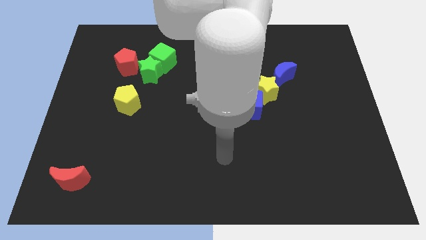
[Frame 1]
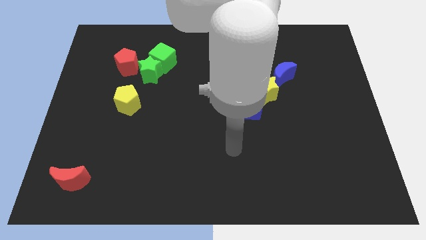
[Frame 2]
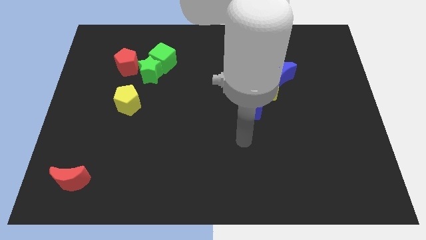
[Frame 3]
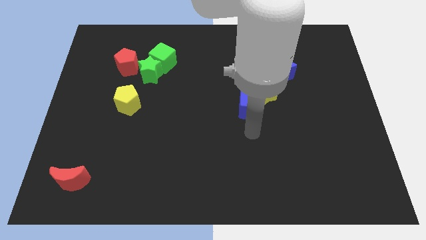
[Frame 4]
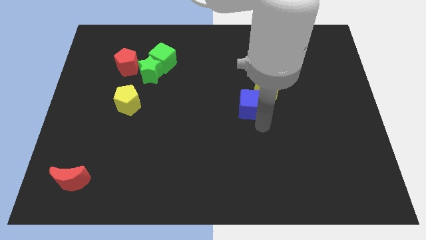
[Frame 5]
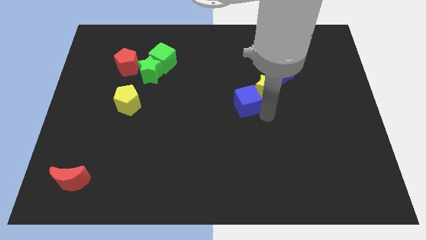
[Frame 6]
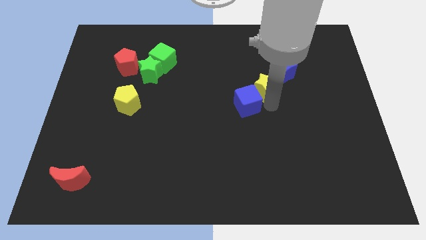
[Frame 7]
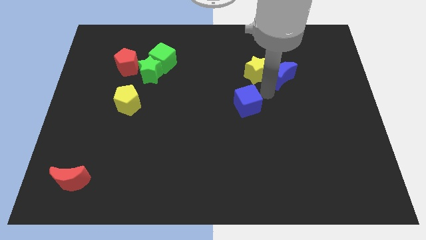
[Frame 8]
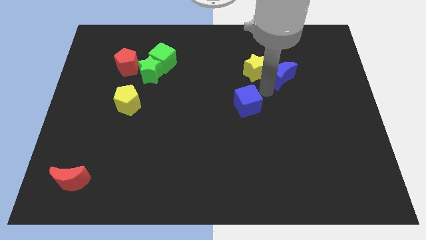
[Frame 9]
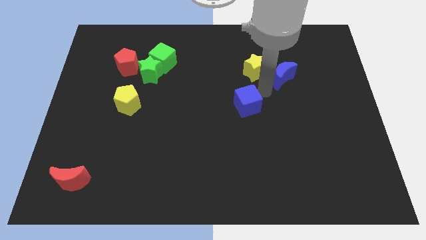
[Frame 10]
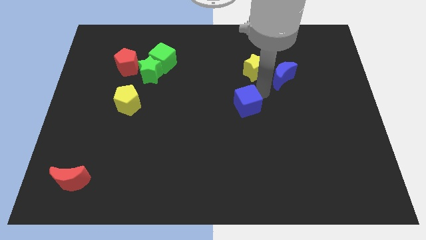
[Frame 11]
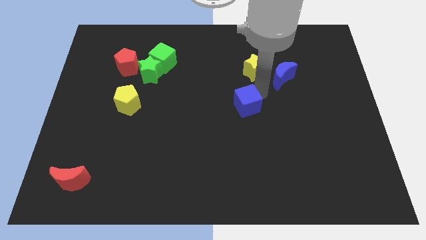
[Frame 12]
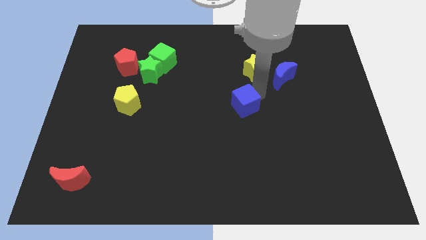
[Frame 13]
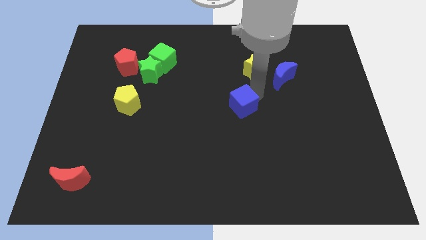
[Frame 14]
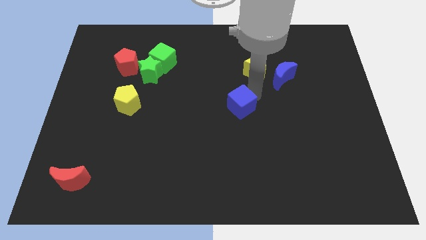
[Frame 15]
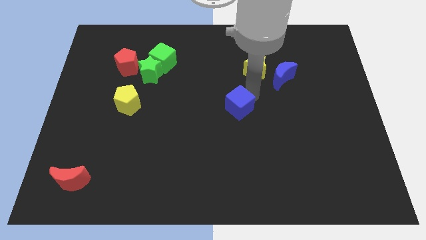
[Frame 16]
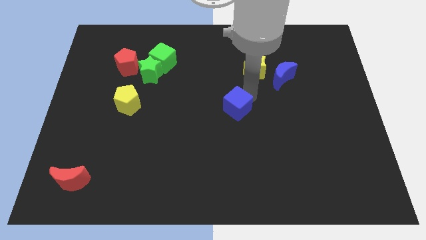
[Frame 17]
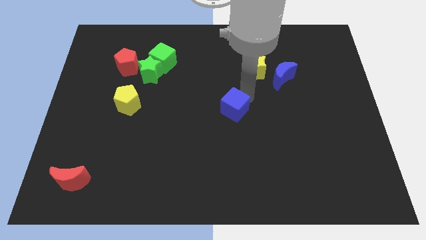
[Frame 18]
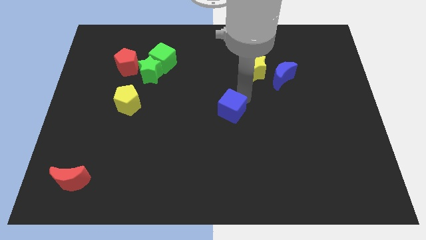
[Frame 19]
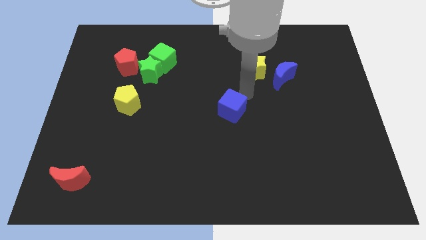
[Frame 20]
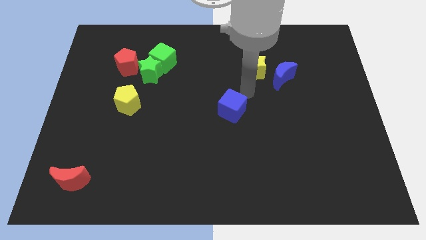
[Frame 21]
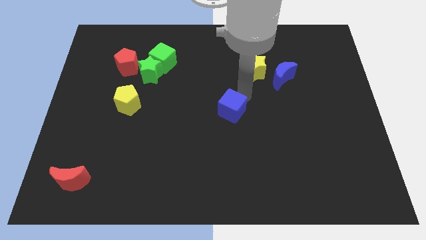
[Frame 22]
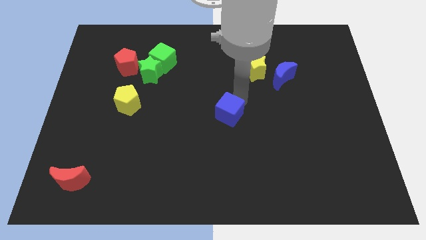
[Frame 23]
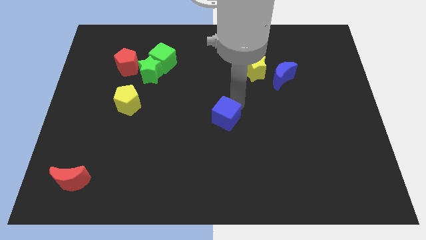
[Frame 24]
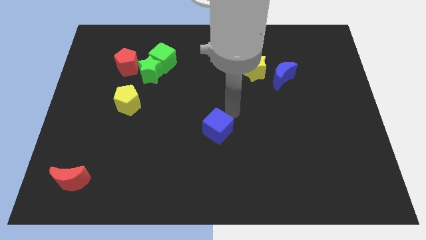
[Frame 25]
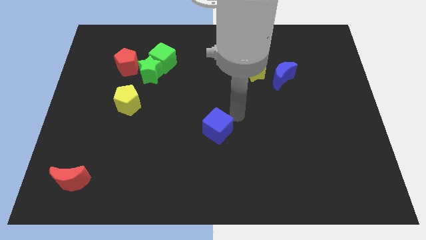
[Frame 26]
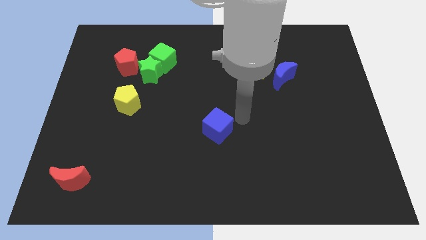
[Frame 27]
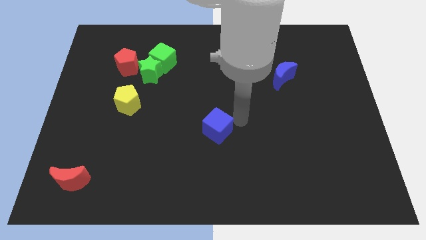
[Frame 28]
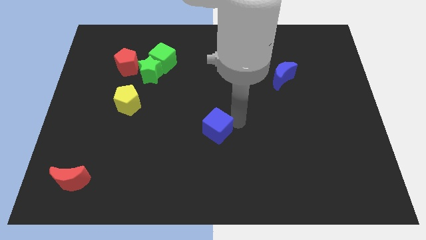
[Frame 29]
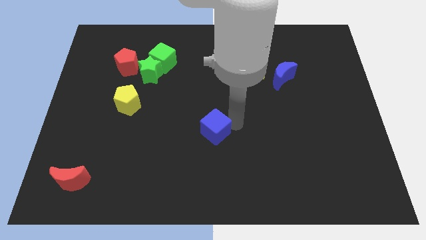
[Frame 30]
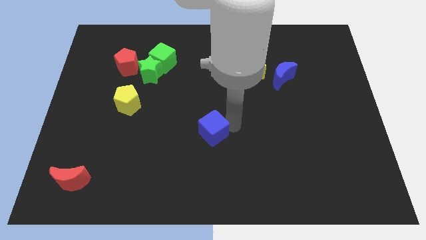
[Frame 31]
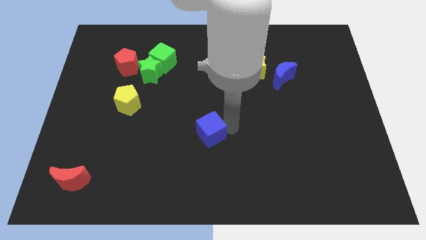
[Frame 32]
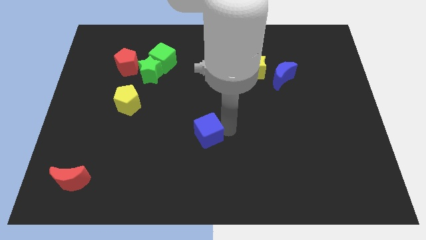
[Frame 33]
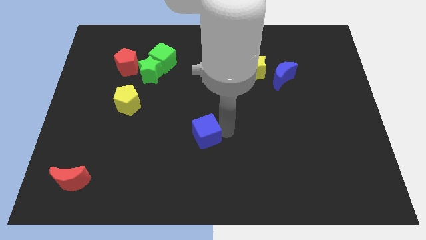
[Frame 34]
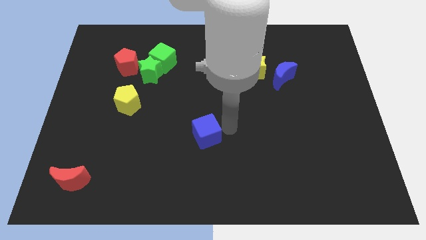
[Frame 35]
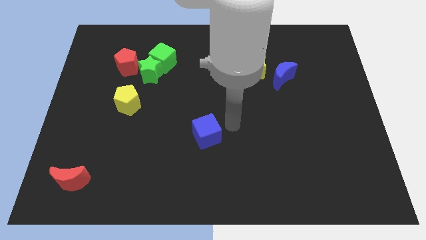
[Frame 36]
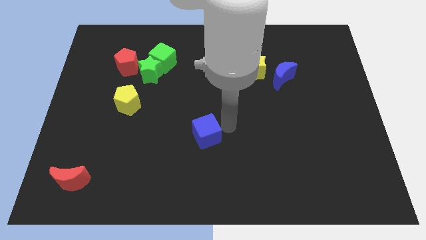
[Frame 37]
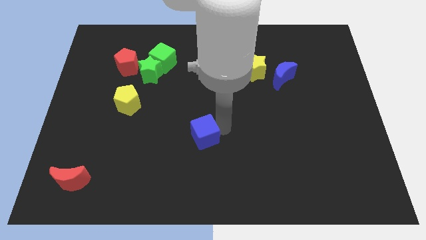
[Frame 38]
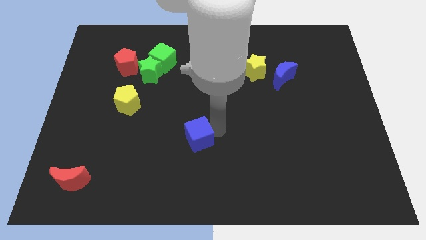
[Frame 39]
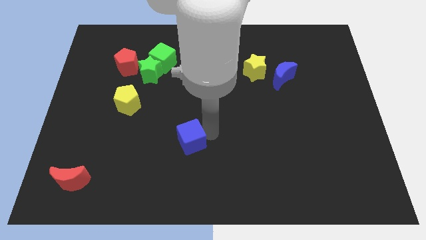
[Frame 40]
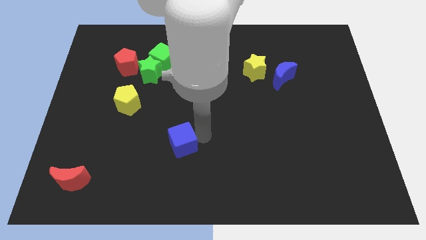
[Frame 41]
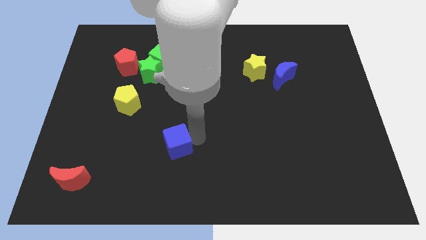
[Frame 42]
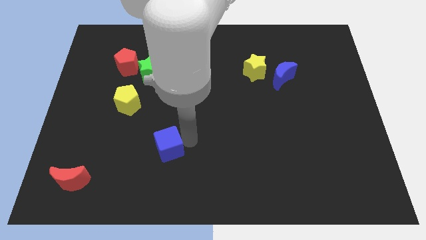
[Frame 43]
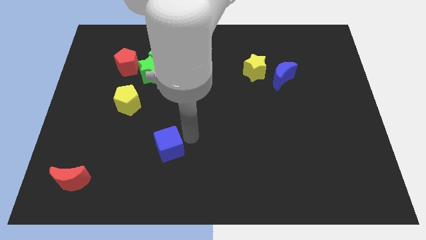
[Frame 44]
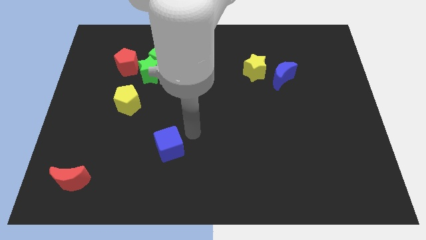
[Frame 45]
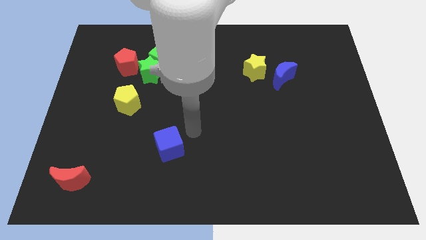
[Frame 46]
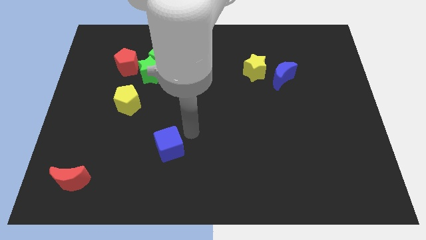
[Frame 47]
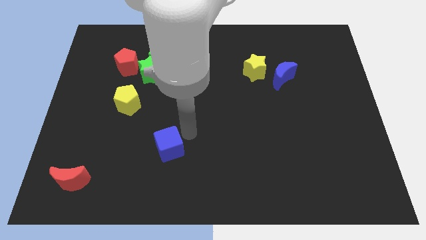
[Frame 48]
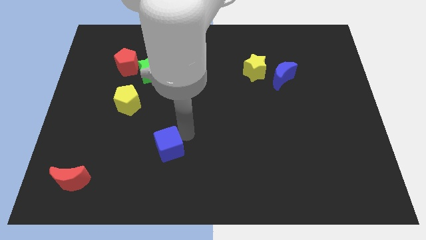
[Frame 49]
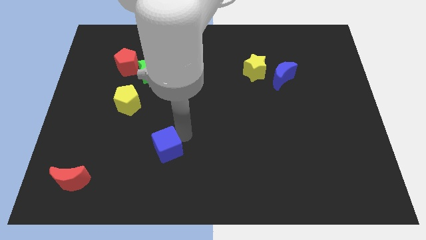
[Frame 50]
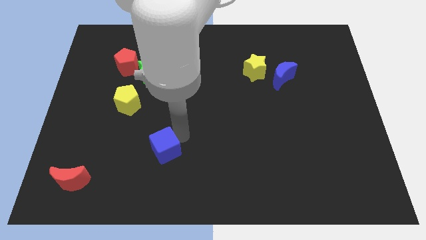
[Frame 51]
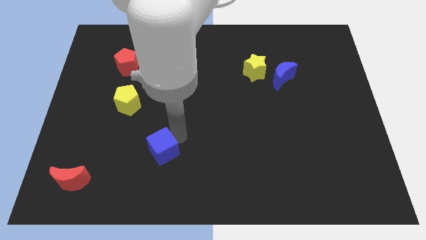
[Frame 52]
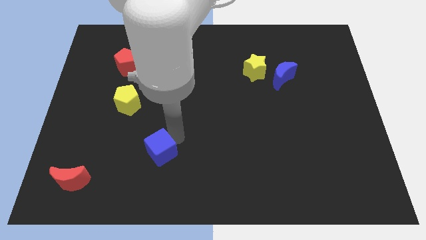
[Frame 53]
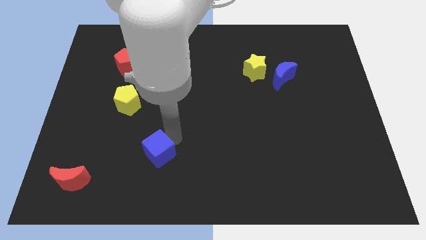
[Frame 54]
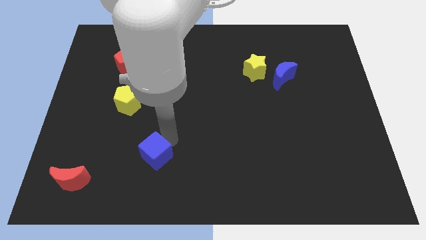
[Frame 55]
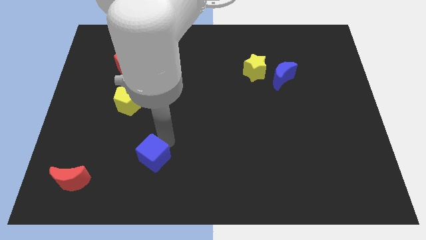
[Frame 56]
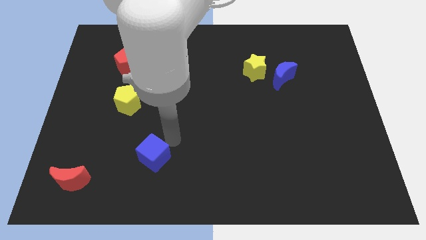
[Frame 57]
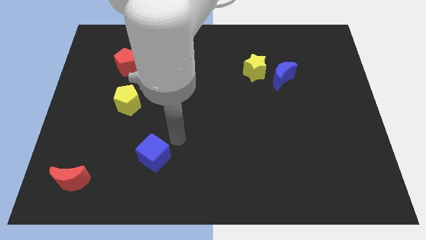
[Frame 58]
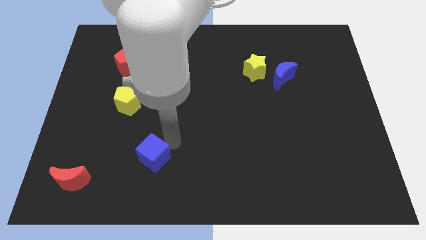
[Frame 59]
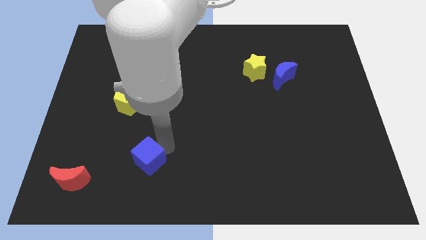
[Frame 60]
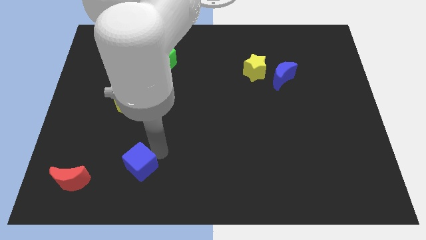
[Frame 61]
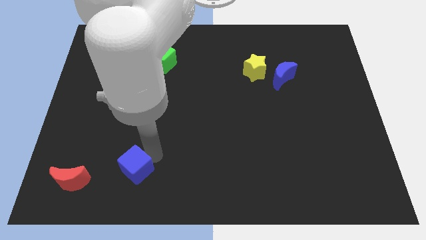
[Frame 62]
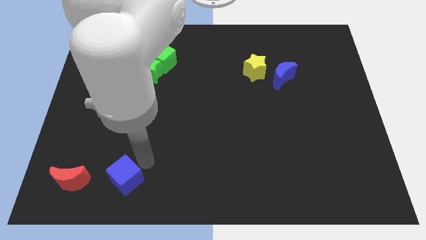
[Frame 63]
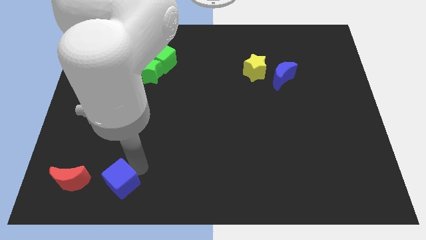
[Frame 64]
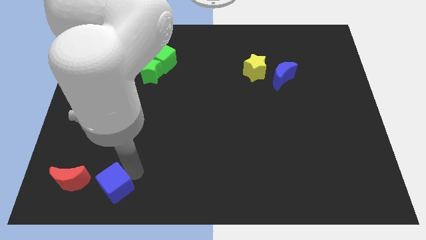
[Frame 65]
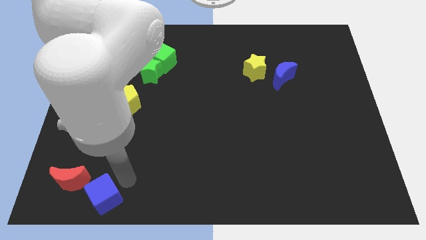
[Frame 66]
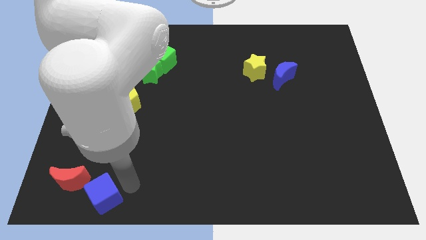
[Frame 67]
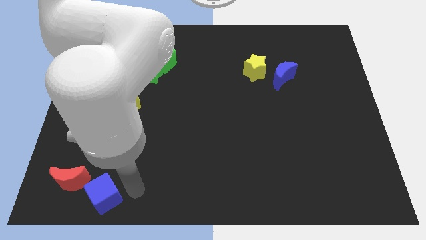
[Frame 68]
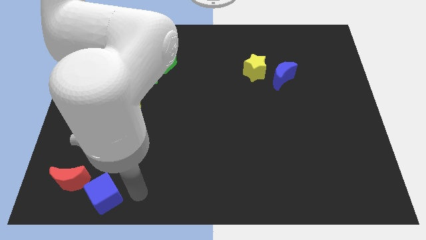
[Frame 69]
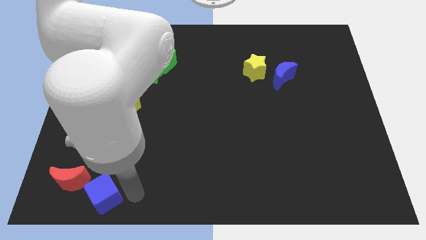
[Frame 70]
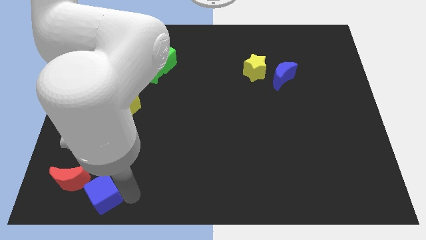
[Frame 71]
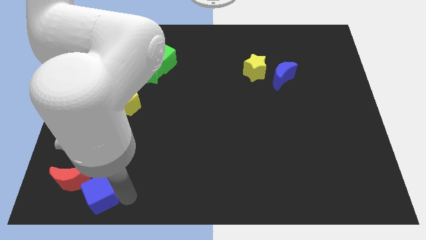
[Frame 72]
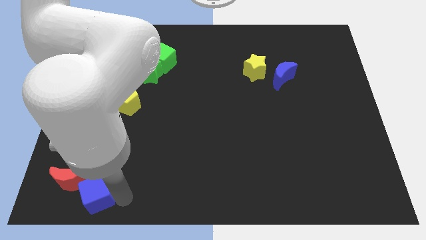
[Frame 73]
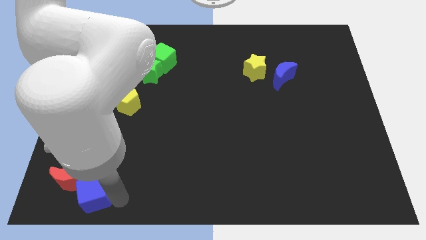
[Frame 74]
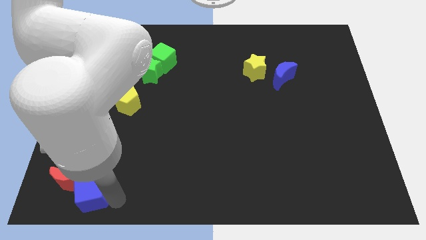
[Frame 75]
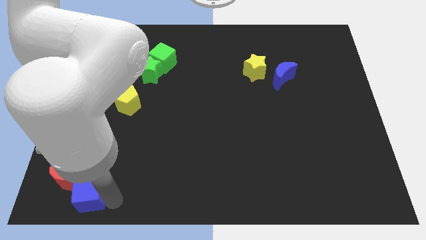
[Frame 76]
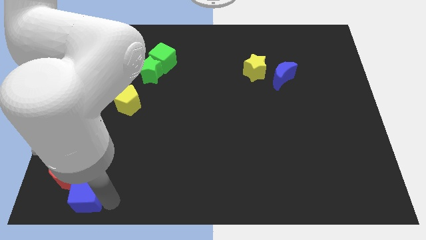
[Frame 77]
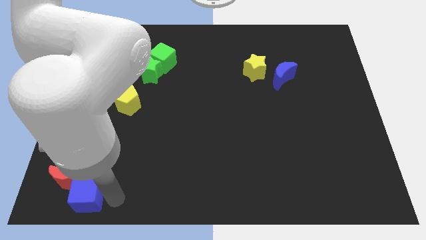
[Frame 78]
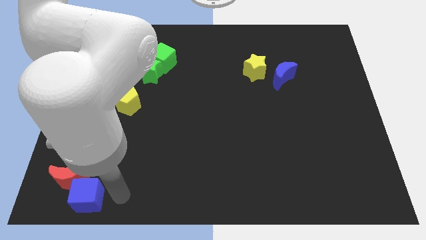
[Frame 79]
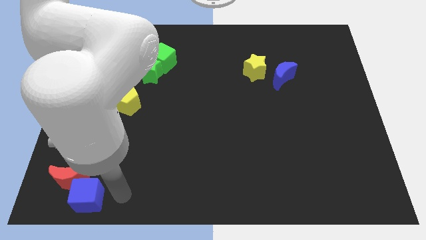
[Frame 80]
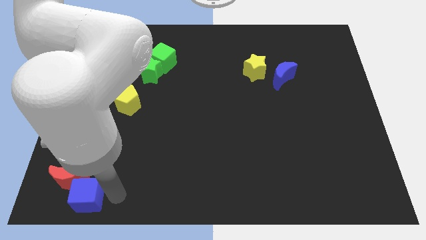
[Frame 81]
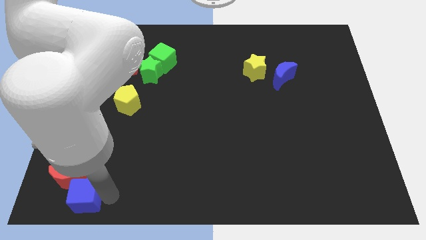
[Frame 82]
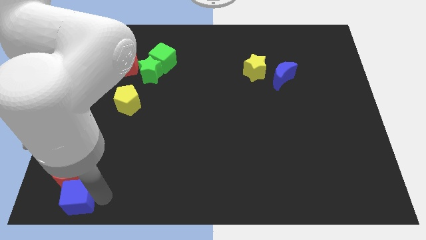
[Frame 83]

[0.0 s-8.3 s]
slide the blue cube to the bottom left of the board
